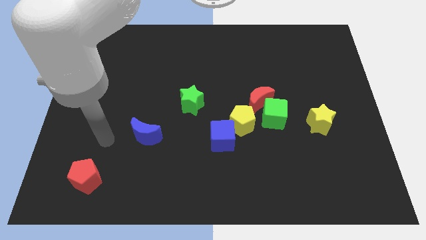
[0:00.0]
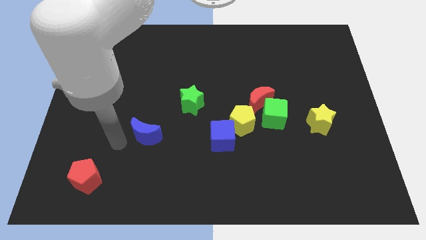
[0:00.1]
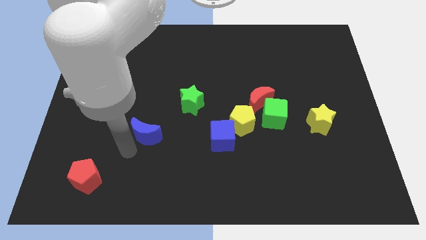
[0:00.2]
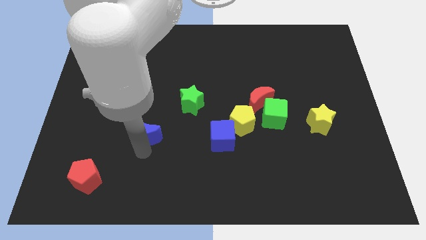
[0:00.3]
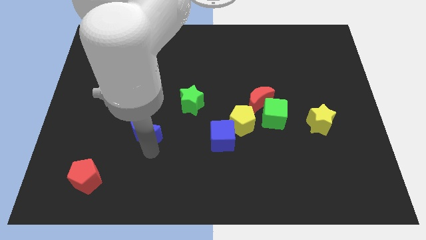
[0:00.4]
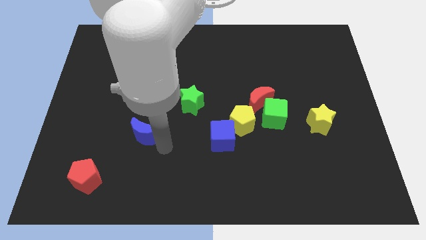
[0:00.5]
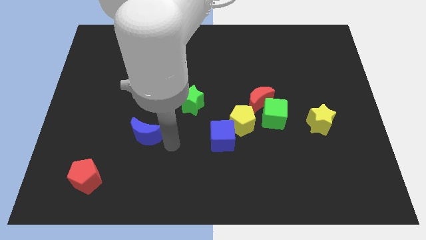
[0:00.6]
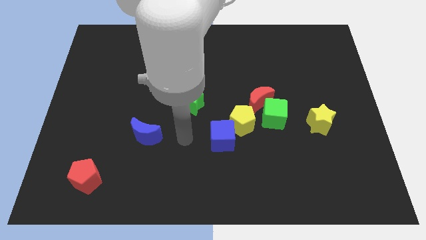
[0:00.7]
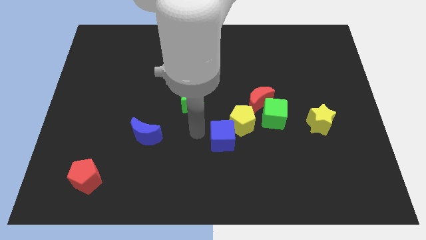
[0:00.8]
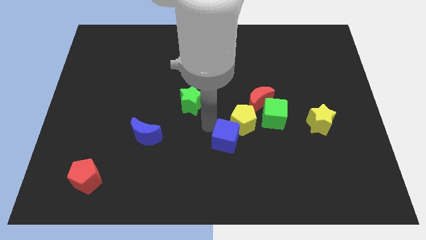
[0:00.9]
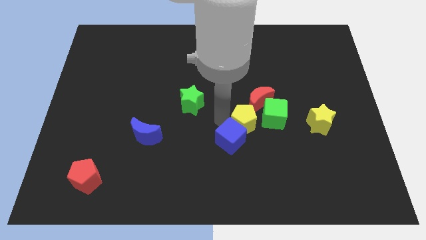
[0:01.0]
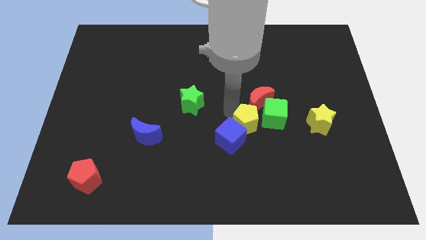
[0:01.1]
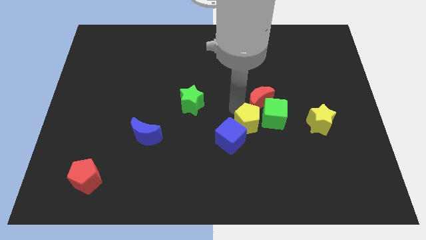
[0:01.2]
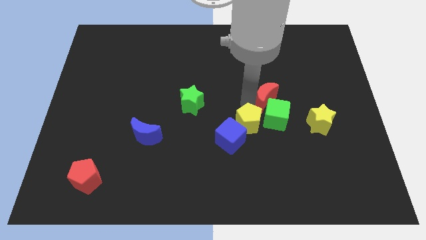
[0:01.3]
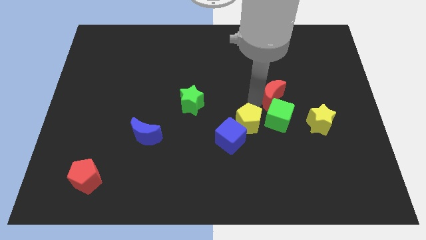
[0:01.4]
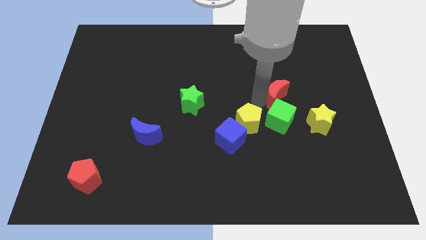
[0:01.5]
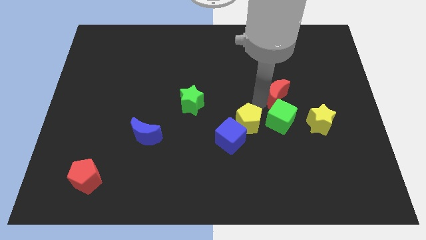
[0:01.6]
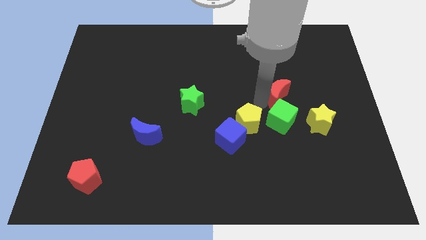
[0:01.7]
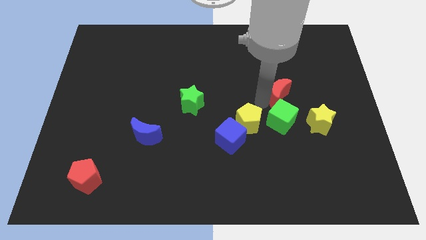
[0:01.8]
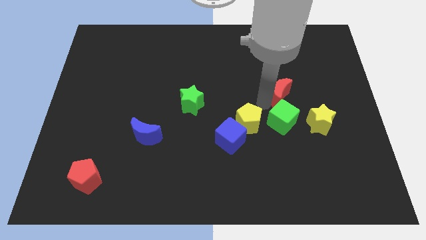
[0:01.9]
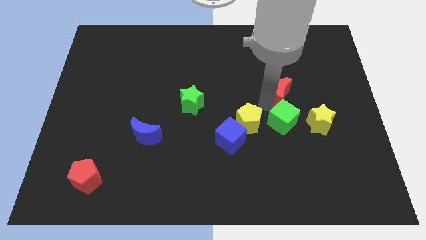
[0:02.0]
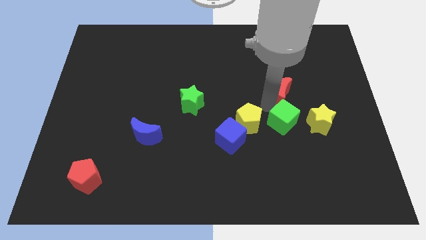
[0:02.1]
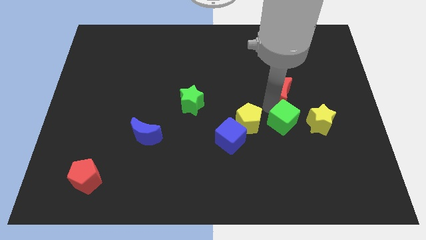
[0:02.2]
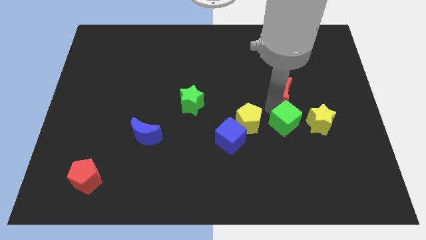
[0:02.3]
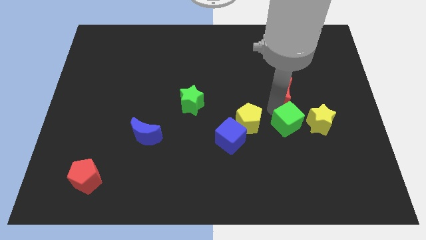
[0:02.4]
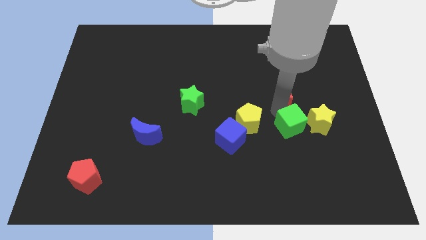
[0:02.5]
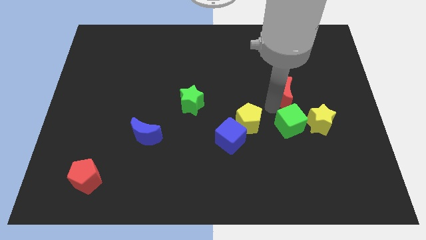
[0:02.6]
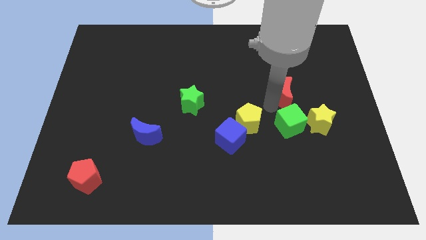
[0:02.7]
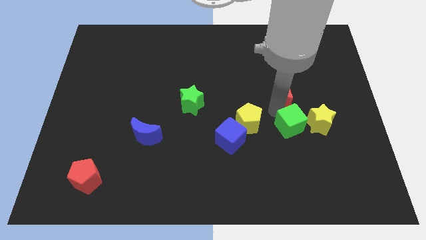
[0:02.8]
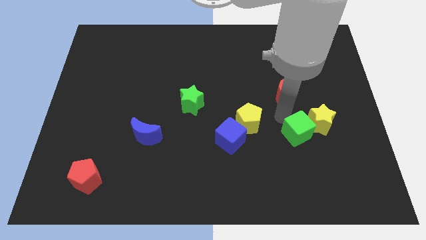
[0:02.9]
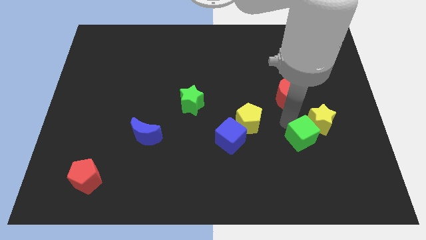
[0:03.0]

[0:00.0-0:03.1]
move the green cube somewhat diagonally downwards and right

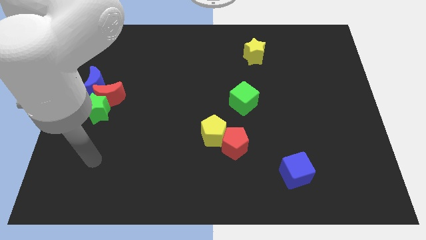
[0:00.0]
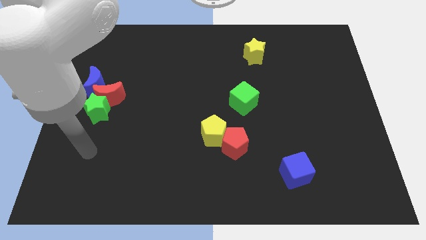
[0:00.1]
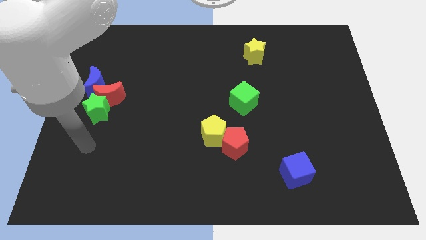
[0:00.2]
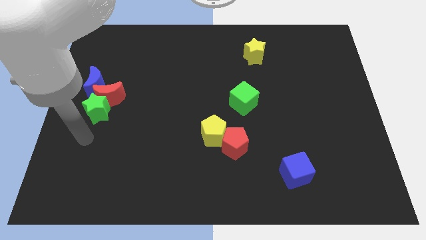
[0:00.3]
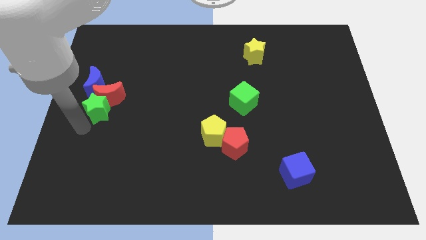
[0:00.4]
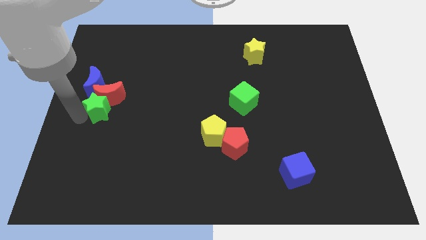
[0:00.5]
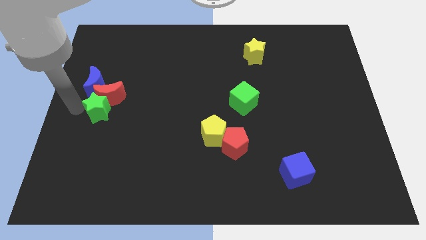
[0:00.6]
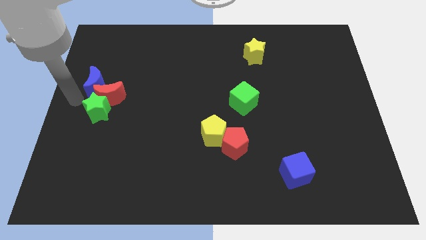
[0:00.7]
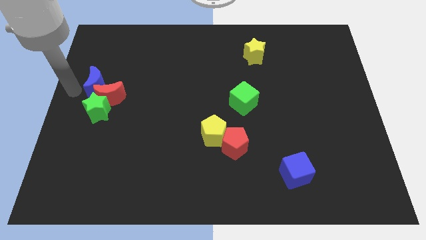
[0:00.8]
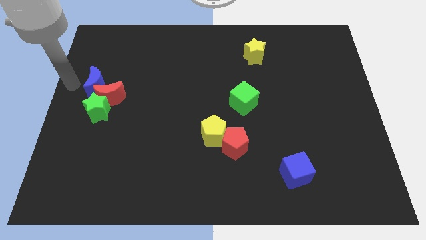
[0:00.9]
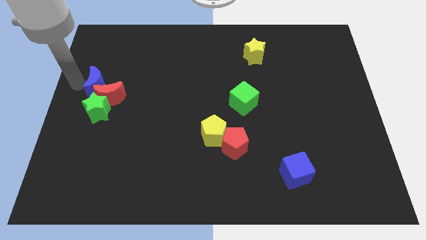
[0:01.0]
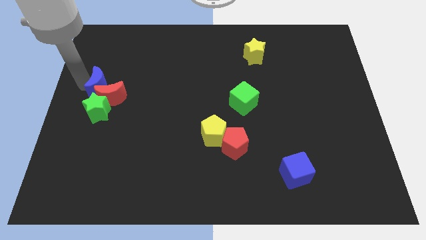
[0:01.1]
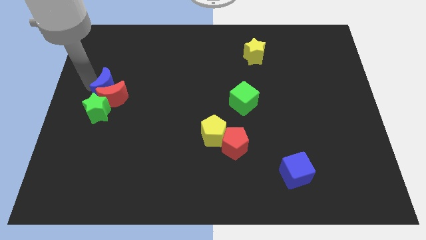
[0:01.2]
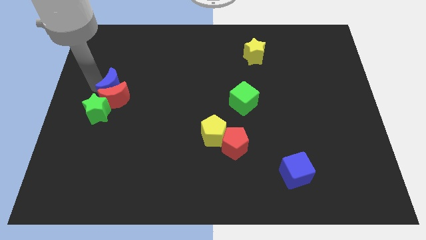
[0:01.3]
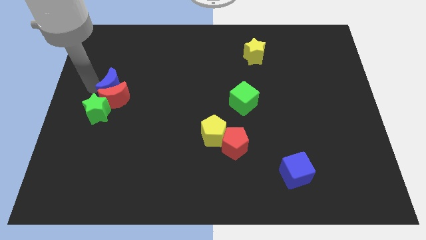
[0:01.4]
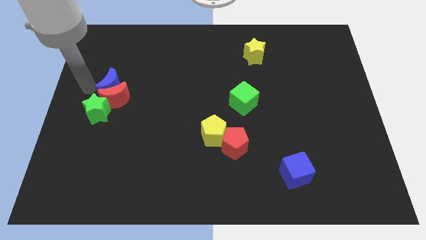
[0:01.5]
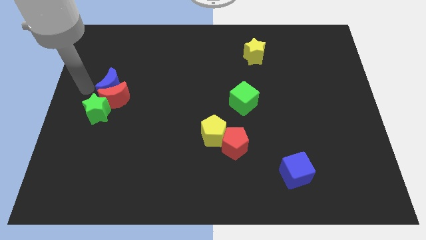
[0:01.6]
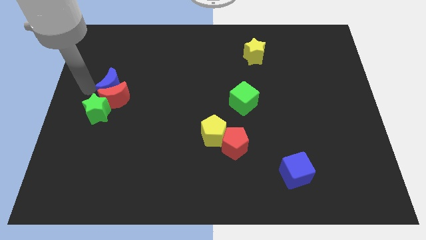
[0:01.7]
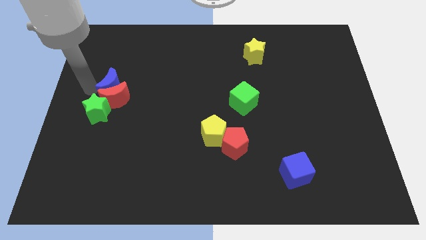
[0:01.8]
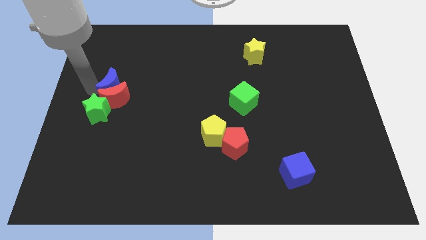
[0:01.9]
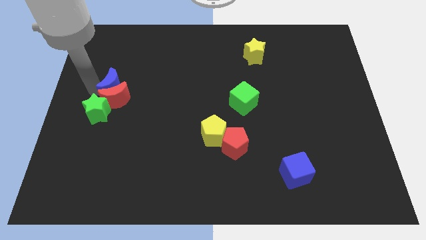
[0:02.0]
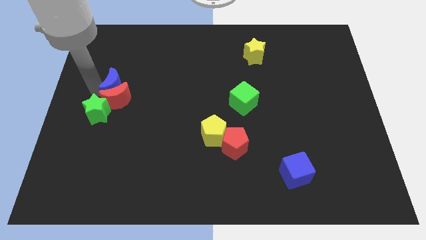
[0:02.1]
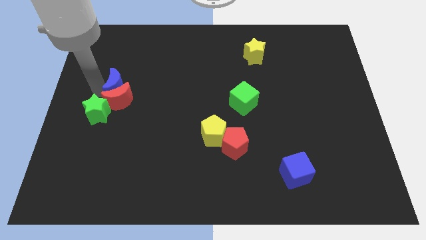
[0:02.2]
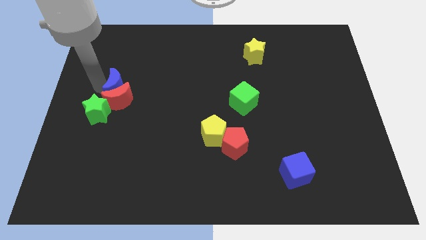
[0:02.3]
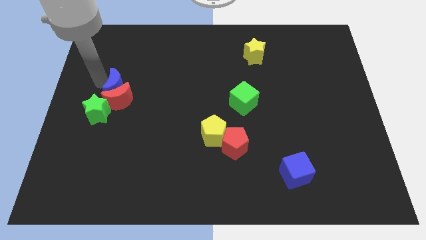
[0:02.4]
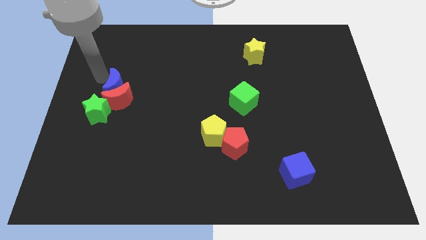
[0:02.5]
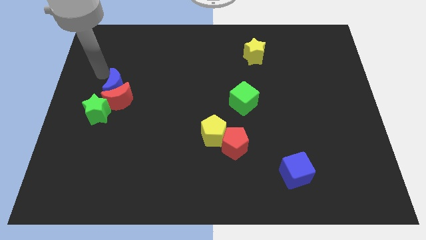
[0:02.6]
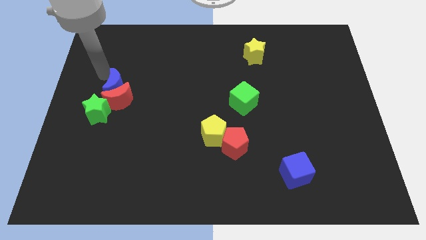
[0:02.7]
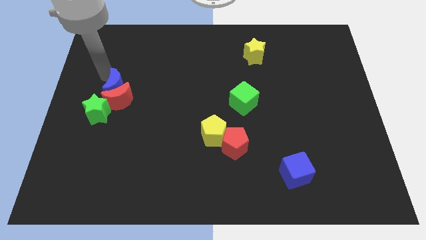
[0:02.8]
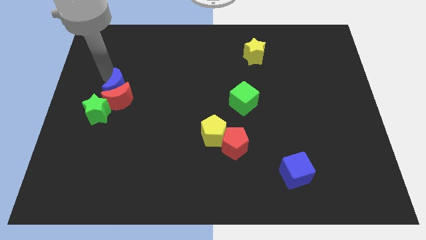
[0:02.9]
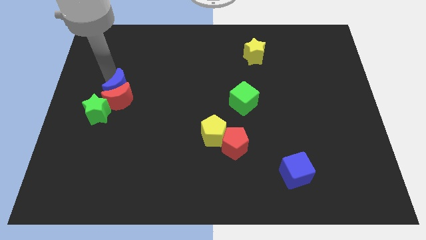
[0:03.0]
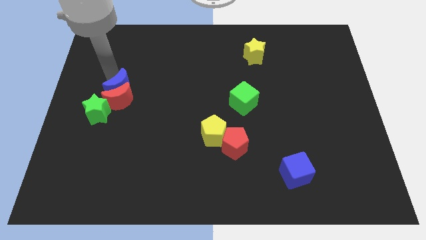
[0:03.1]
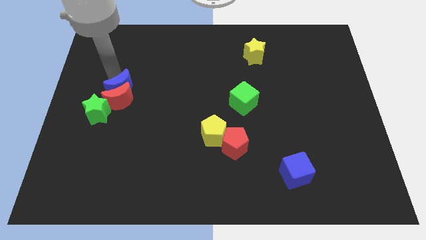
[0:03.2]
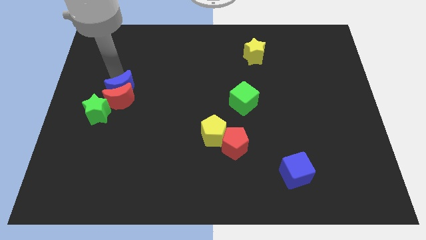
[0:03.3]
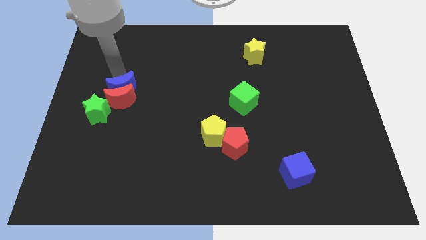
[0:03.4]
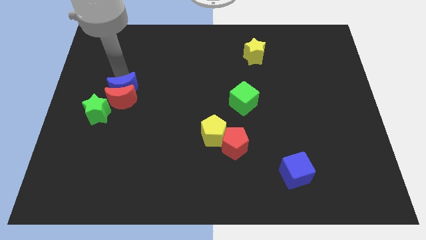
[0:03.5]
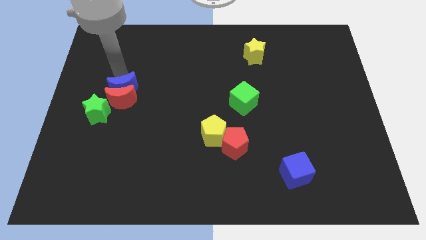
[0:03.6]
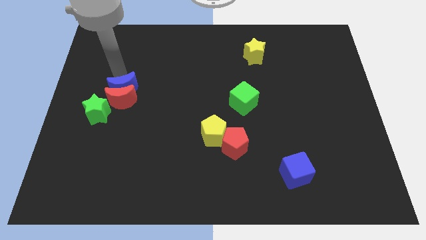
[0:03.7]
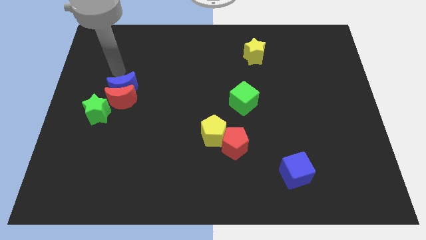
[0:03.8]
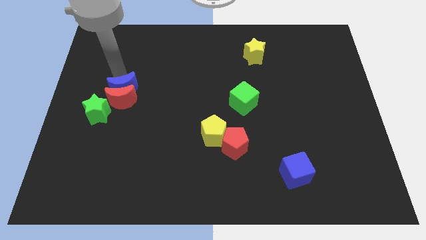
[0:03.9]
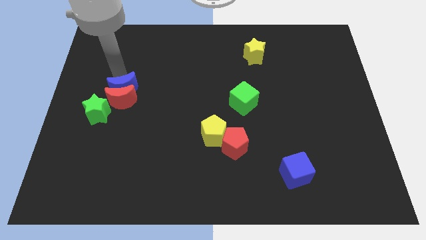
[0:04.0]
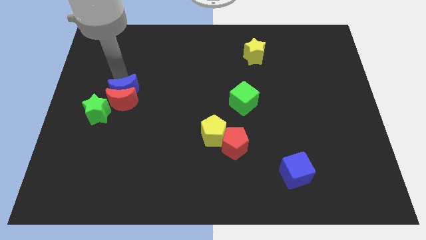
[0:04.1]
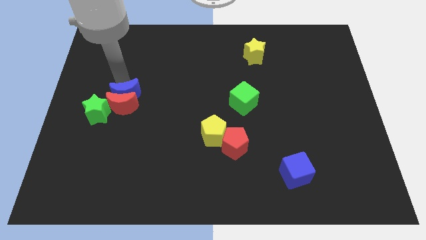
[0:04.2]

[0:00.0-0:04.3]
push the blue moon diagonally downwards and to the right slightly
